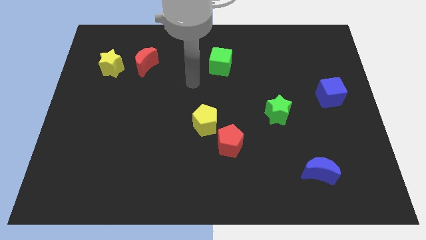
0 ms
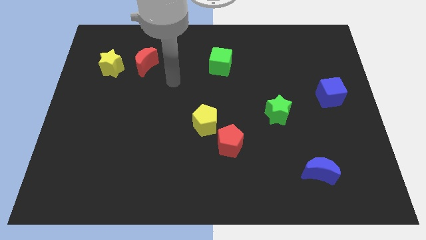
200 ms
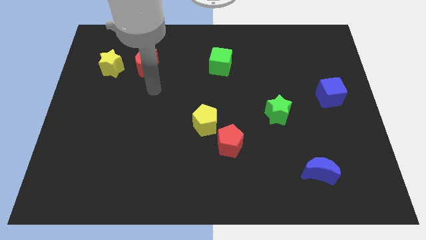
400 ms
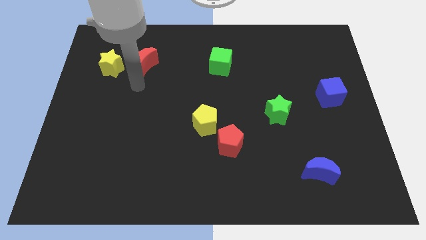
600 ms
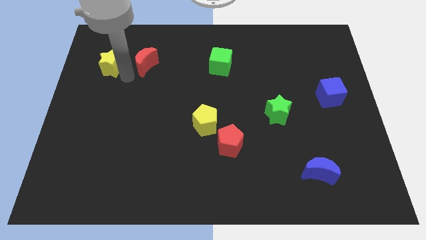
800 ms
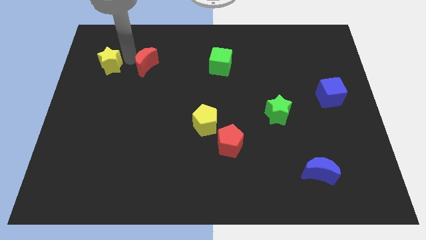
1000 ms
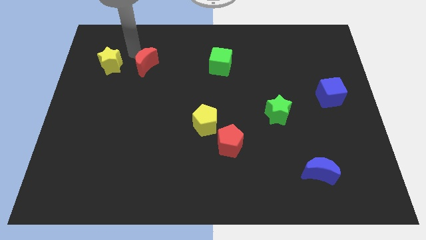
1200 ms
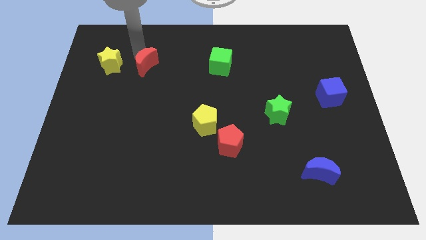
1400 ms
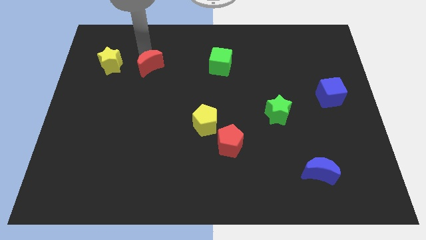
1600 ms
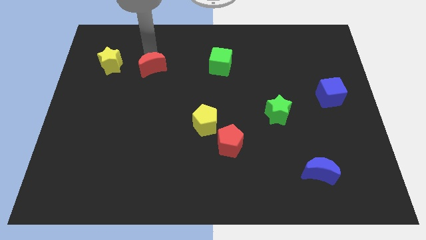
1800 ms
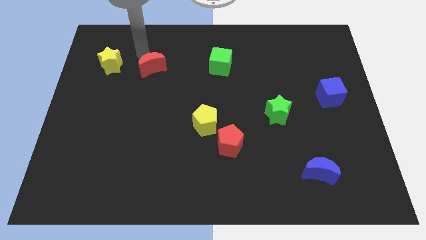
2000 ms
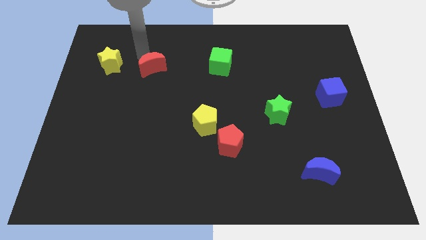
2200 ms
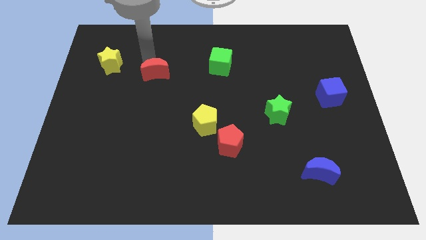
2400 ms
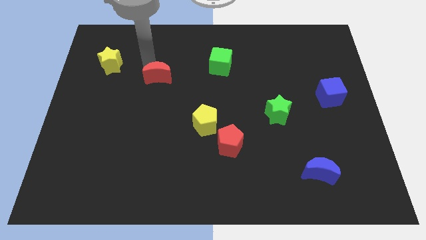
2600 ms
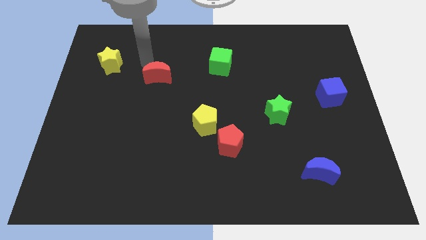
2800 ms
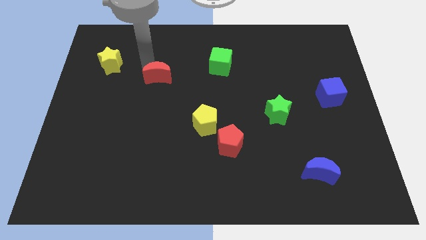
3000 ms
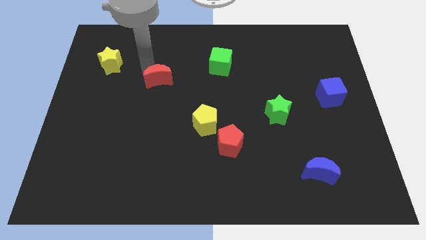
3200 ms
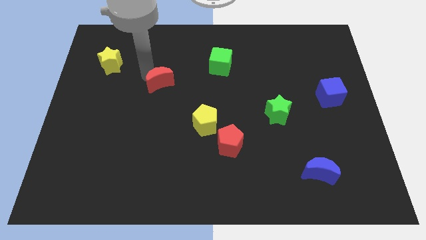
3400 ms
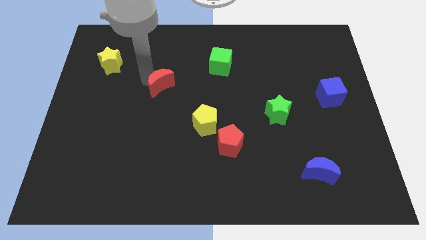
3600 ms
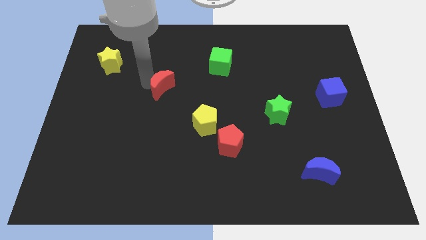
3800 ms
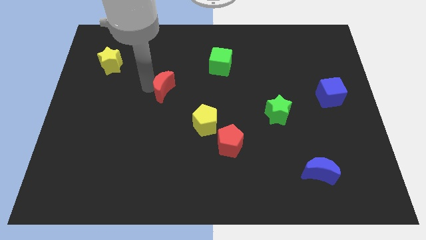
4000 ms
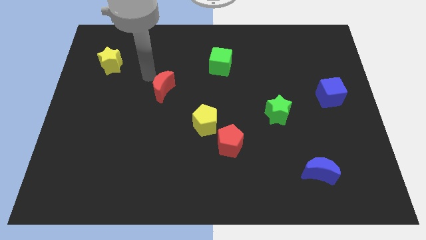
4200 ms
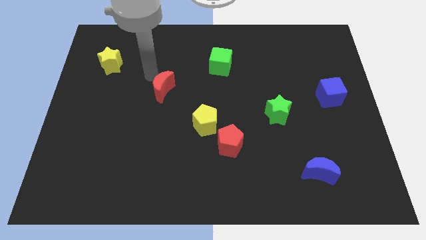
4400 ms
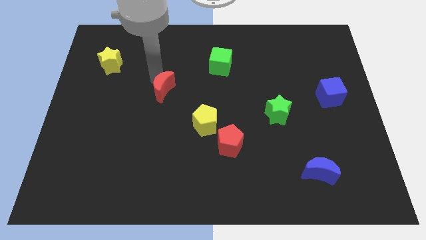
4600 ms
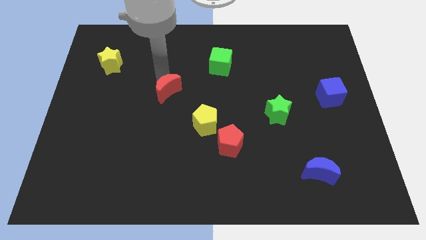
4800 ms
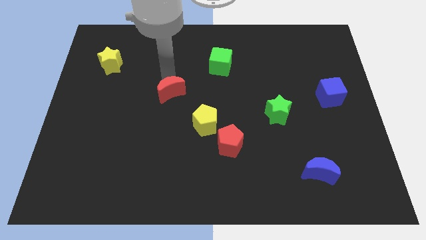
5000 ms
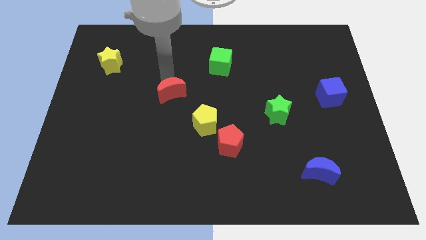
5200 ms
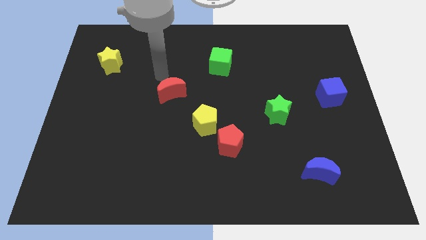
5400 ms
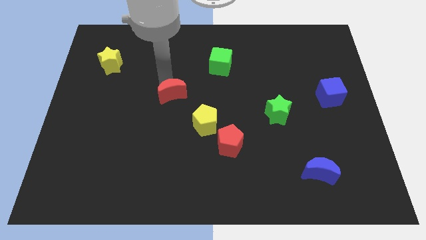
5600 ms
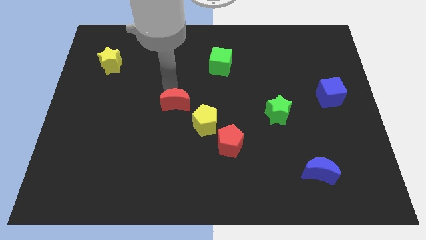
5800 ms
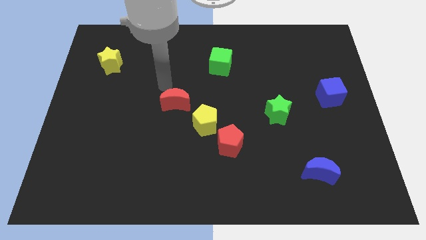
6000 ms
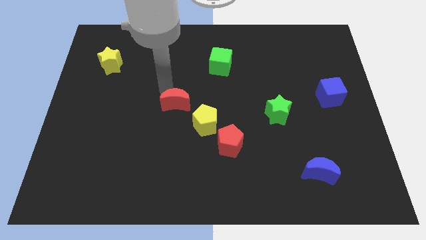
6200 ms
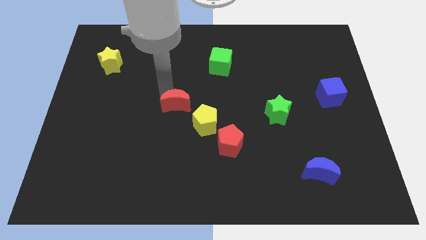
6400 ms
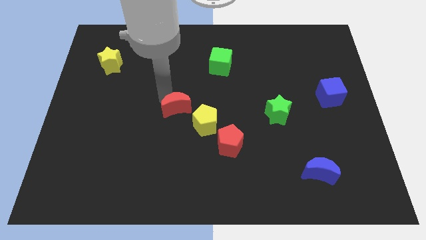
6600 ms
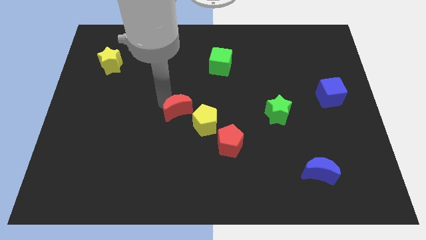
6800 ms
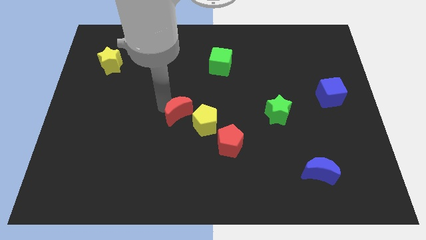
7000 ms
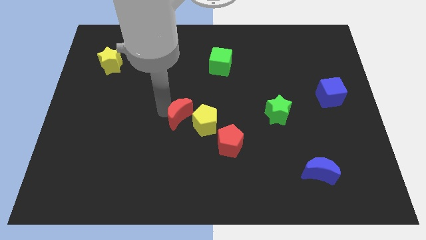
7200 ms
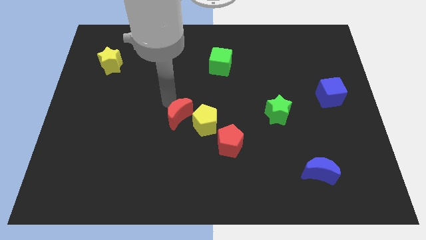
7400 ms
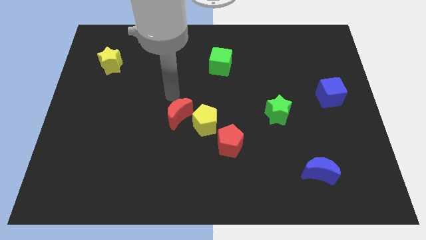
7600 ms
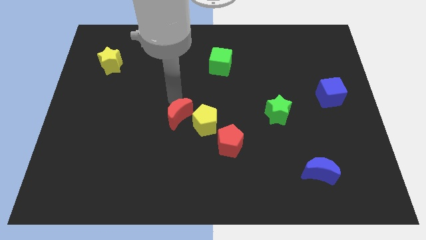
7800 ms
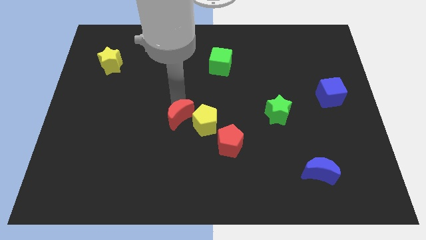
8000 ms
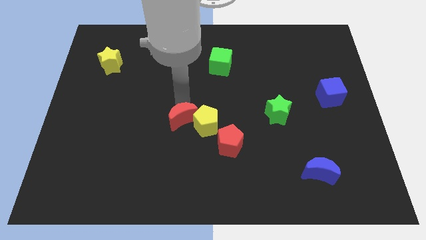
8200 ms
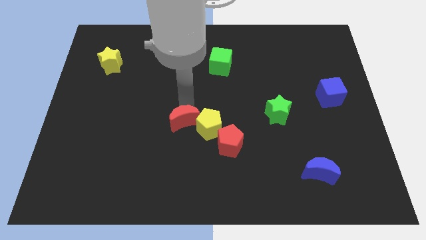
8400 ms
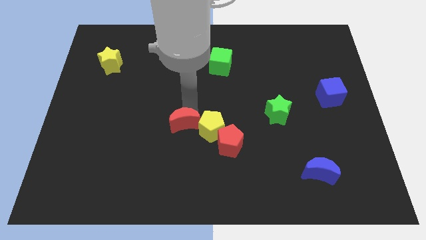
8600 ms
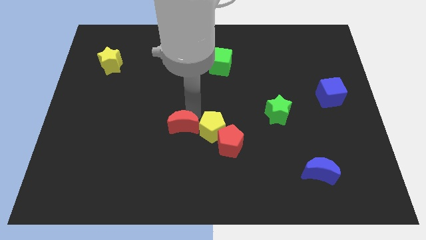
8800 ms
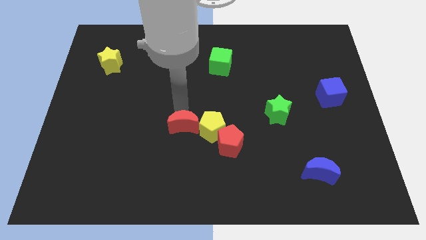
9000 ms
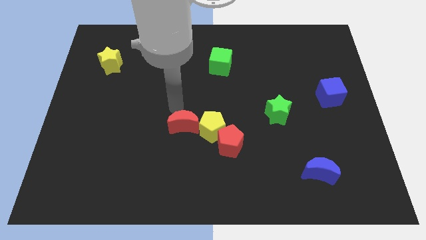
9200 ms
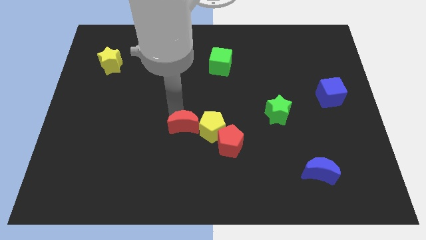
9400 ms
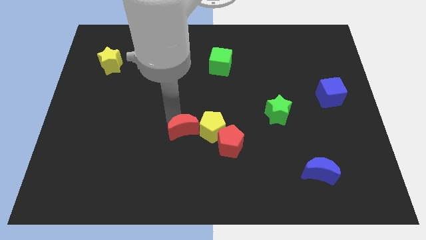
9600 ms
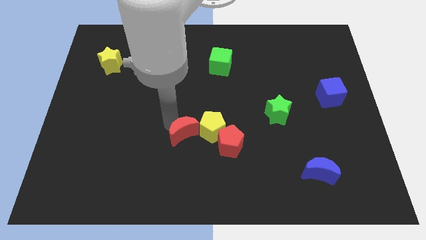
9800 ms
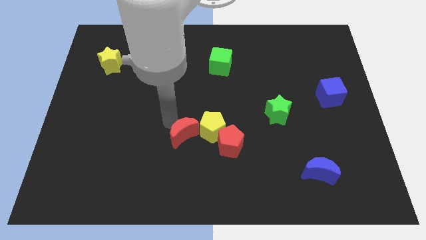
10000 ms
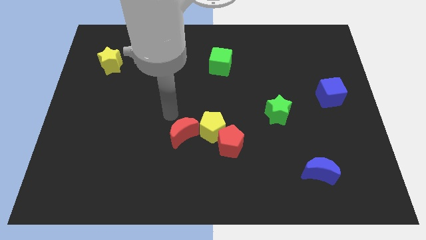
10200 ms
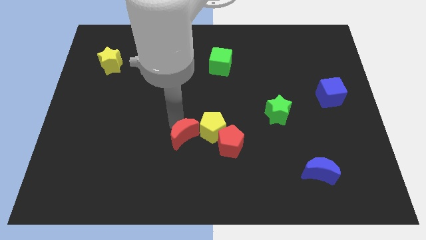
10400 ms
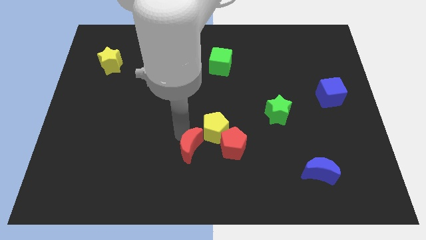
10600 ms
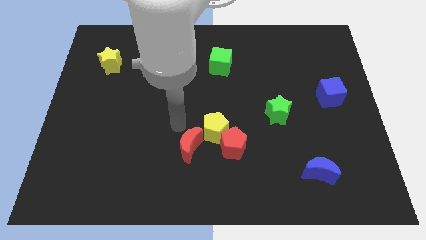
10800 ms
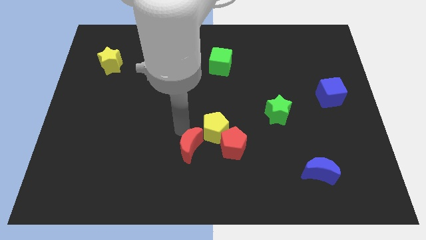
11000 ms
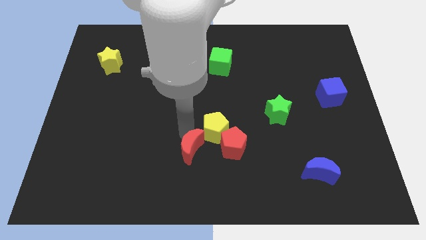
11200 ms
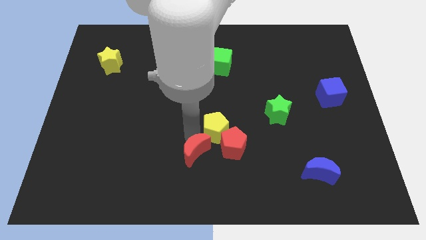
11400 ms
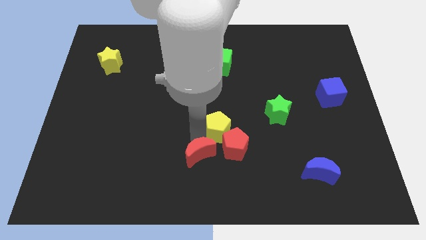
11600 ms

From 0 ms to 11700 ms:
push the red moon to the bottom side

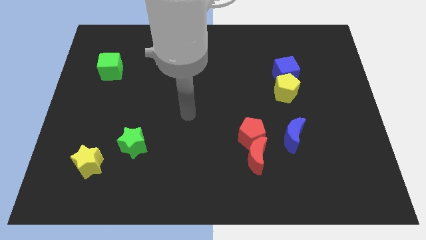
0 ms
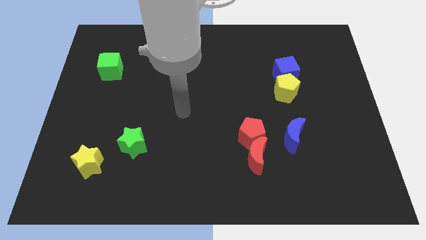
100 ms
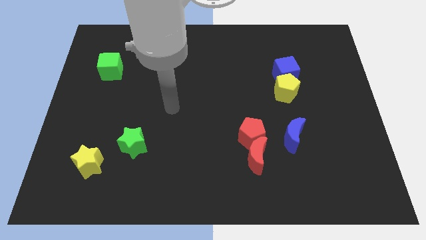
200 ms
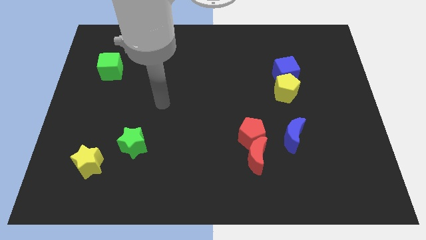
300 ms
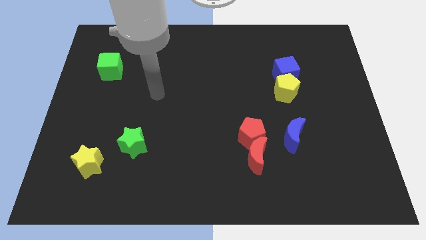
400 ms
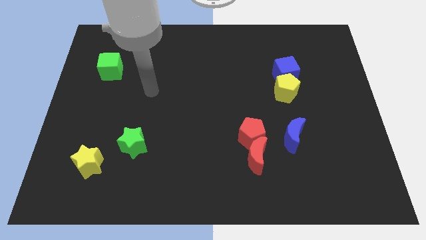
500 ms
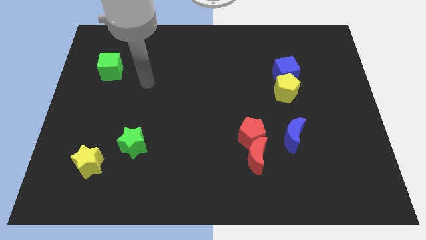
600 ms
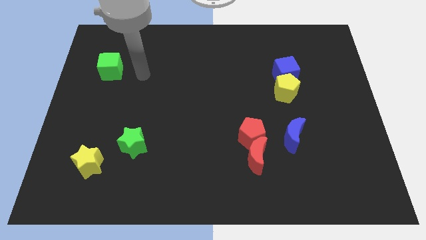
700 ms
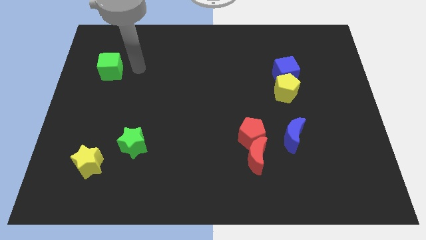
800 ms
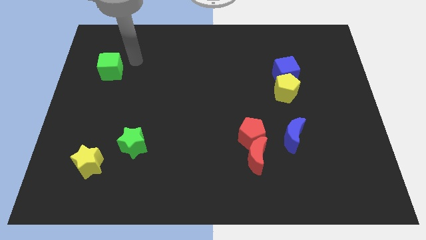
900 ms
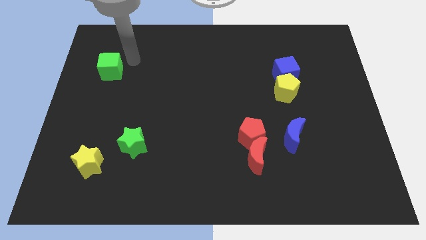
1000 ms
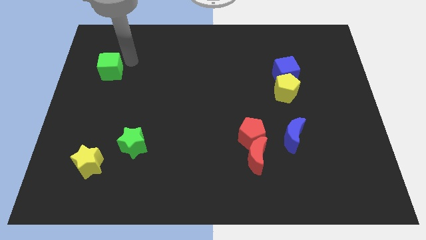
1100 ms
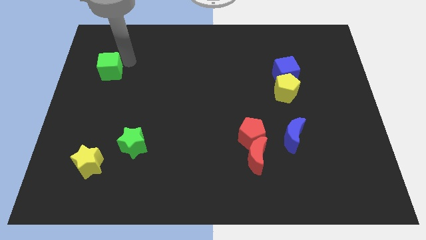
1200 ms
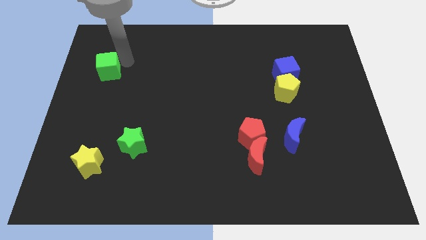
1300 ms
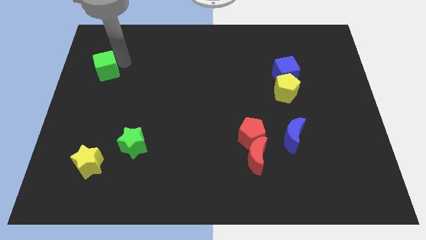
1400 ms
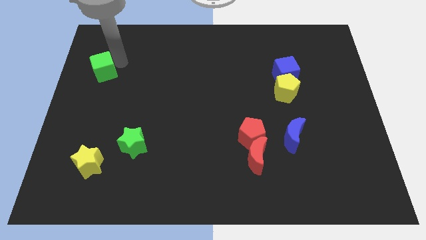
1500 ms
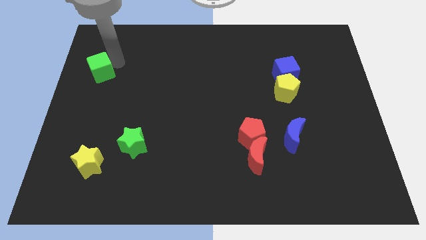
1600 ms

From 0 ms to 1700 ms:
slide the green cube to the left side of the board
